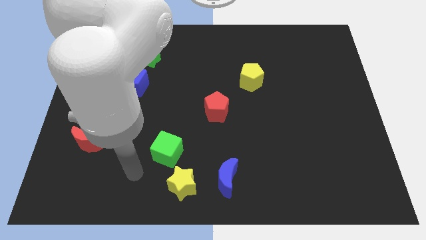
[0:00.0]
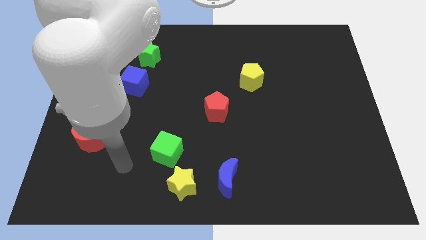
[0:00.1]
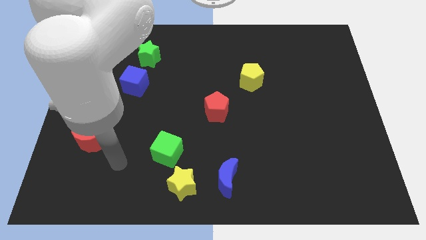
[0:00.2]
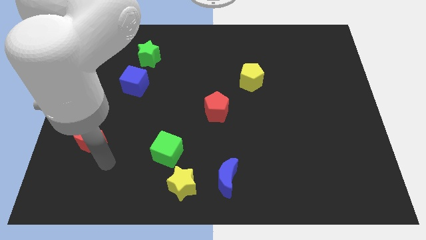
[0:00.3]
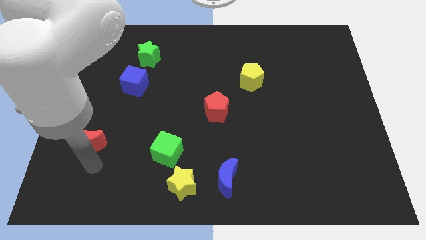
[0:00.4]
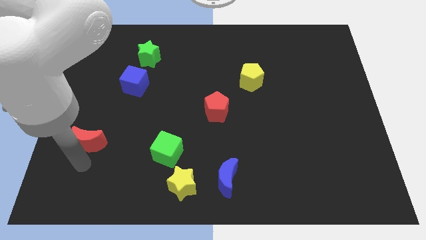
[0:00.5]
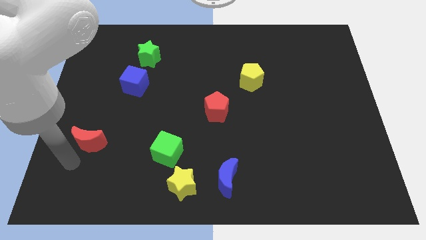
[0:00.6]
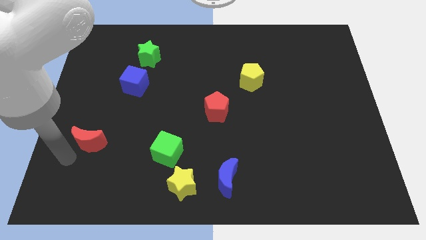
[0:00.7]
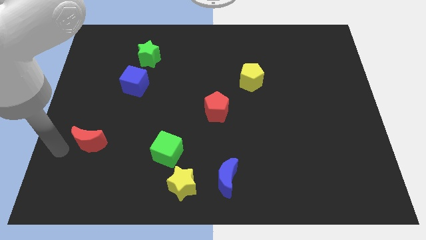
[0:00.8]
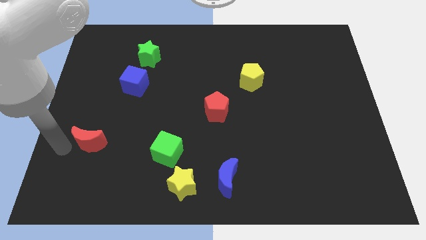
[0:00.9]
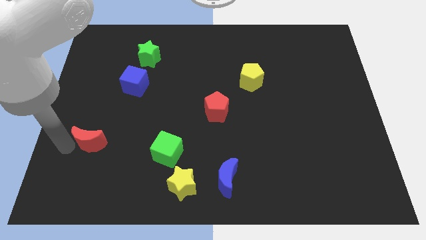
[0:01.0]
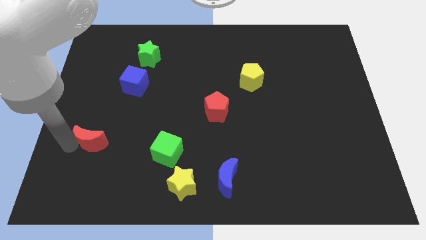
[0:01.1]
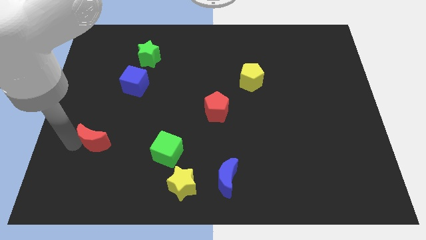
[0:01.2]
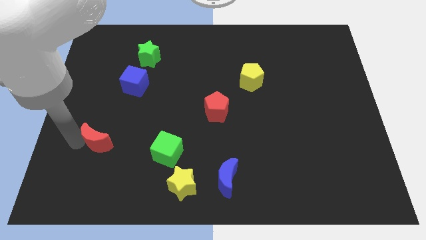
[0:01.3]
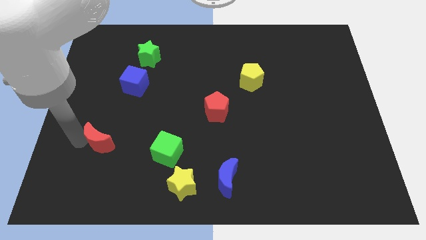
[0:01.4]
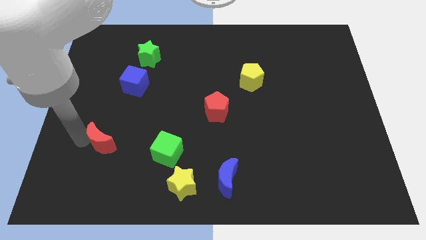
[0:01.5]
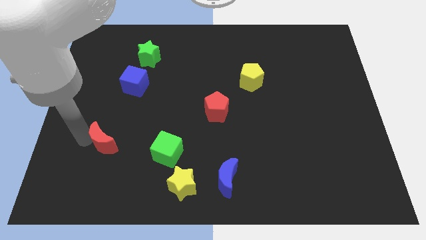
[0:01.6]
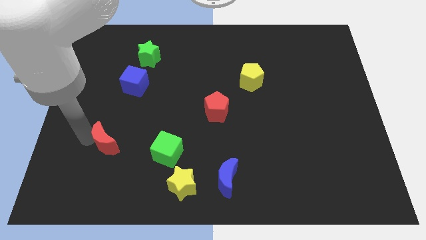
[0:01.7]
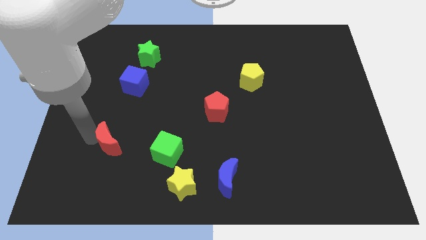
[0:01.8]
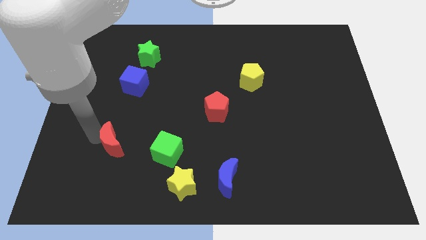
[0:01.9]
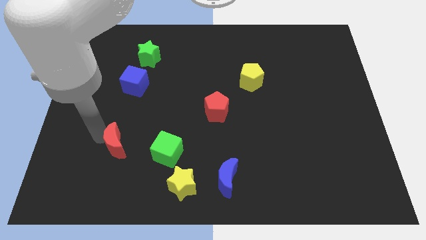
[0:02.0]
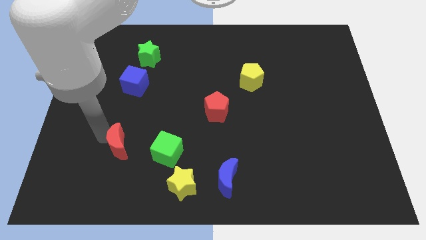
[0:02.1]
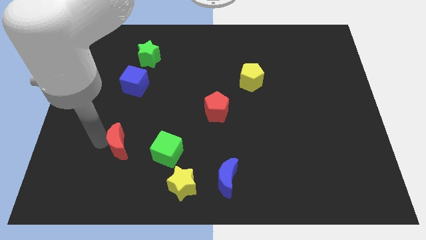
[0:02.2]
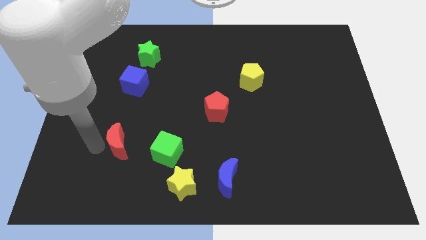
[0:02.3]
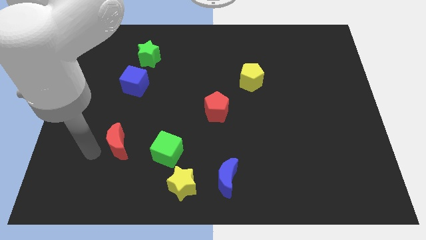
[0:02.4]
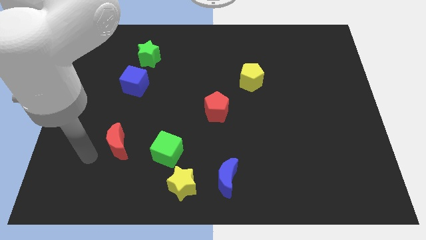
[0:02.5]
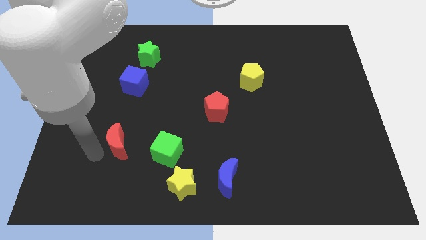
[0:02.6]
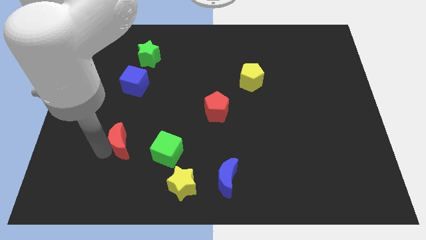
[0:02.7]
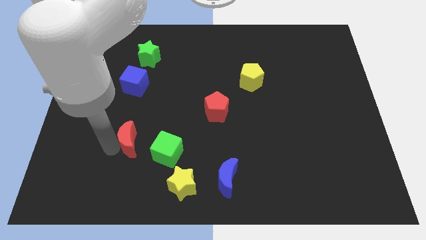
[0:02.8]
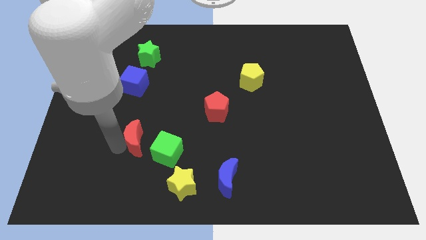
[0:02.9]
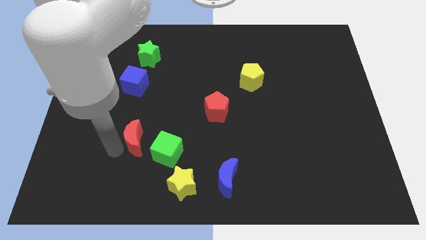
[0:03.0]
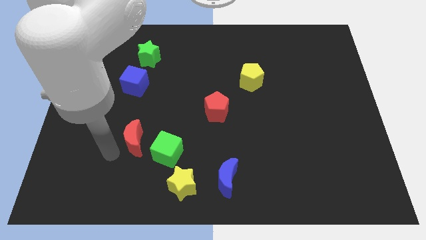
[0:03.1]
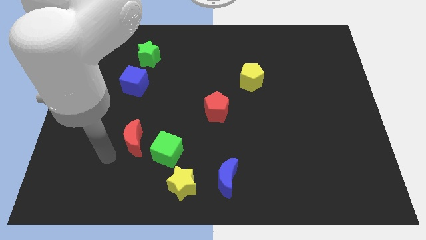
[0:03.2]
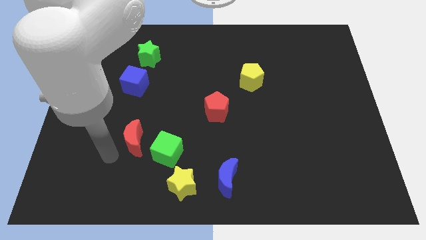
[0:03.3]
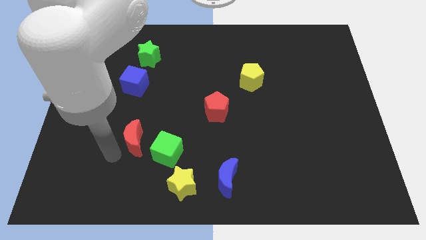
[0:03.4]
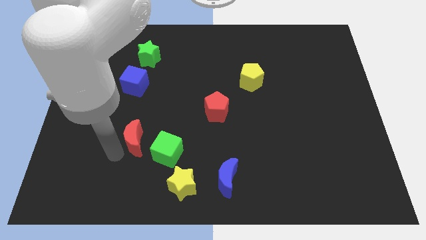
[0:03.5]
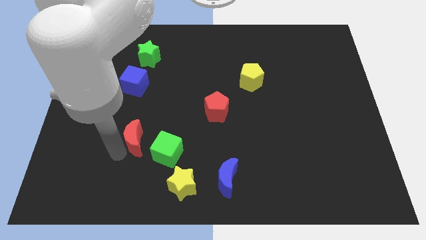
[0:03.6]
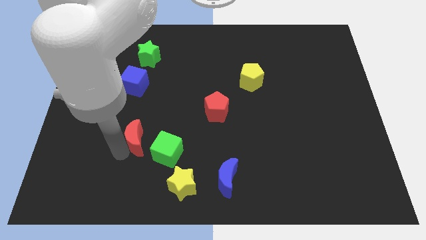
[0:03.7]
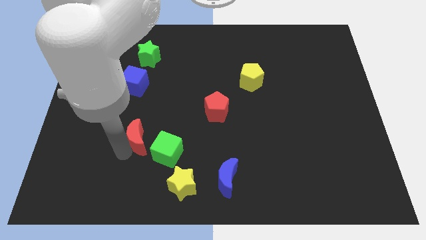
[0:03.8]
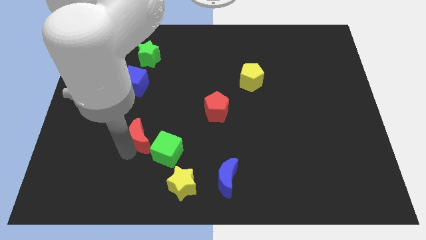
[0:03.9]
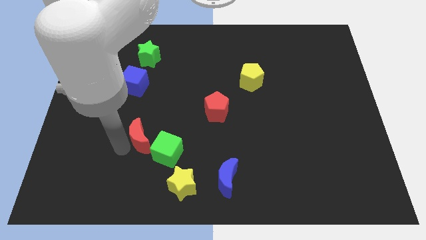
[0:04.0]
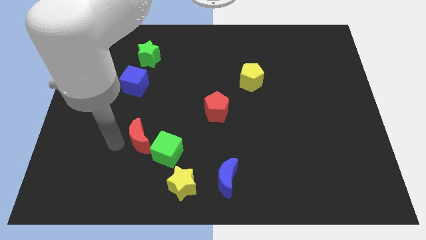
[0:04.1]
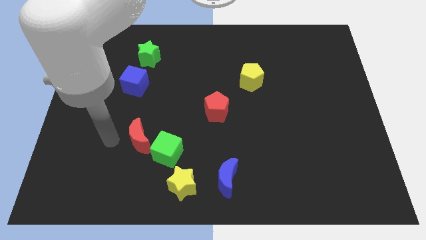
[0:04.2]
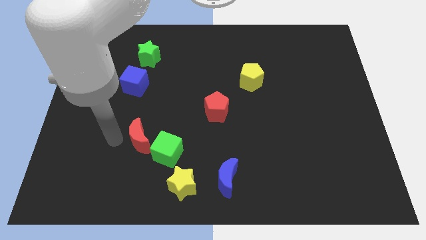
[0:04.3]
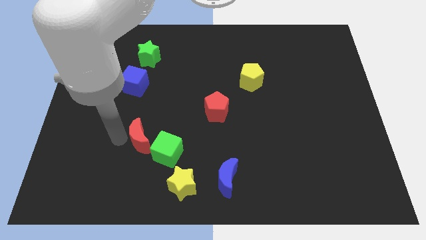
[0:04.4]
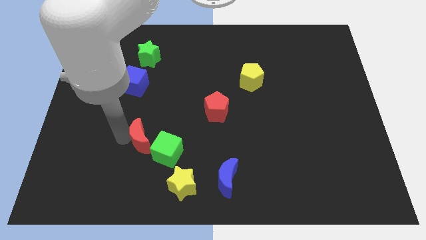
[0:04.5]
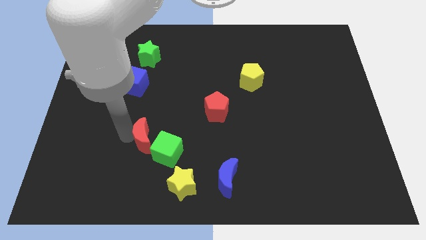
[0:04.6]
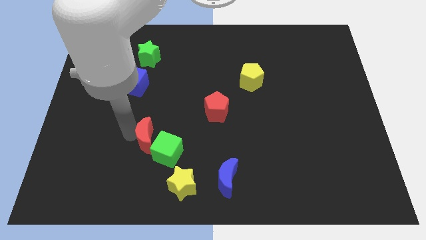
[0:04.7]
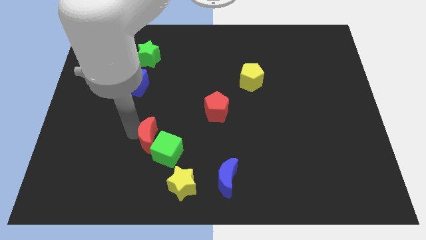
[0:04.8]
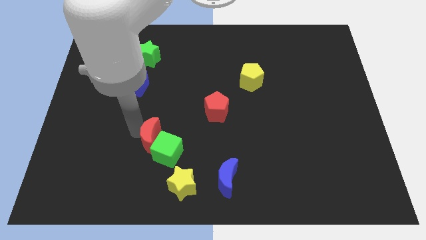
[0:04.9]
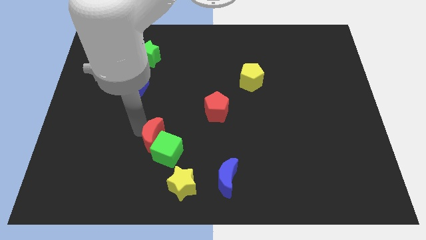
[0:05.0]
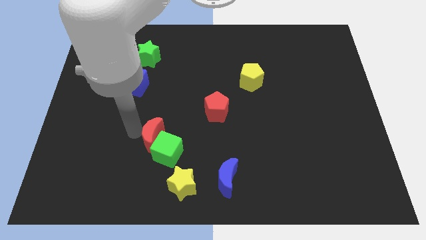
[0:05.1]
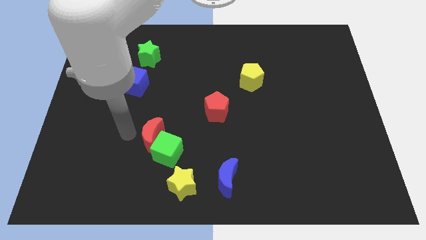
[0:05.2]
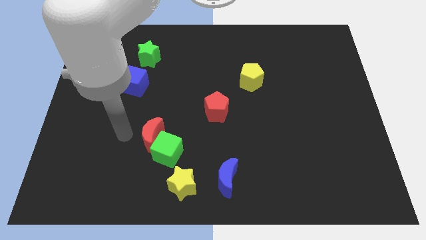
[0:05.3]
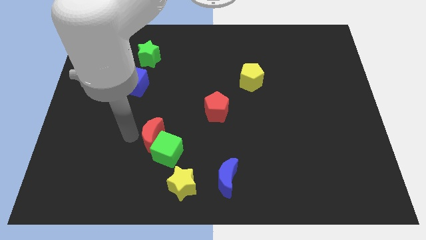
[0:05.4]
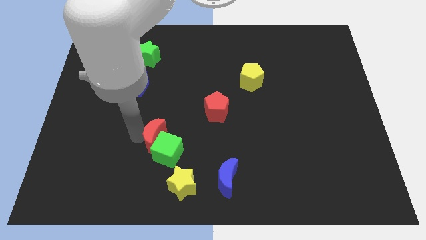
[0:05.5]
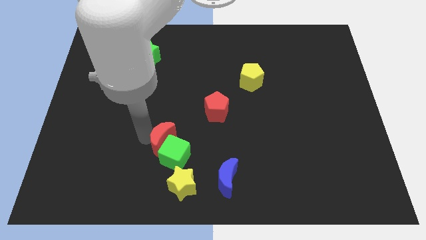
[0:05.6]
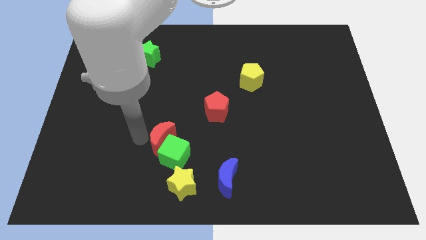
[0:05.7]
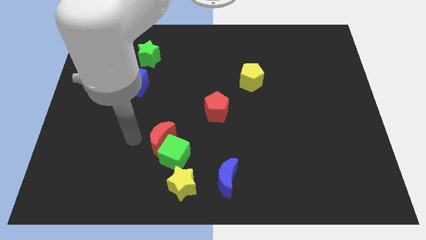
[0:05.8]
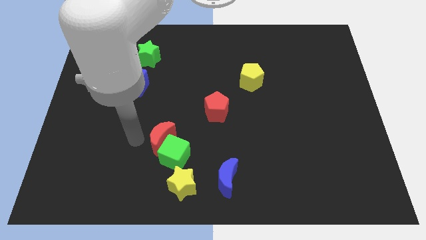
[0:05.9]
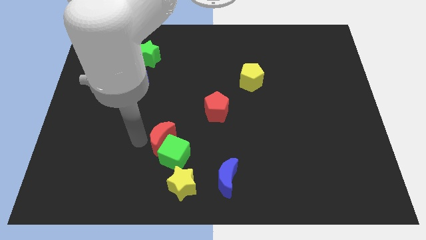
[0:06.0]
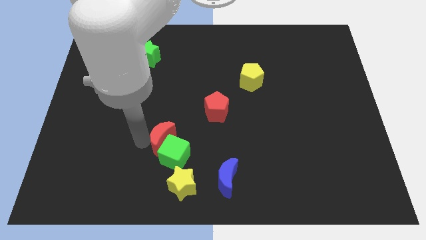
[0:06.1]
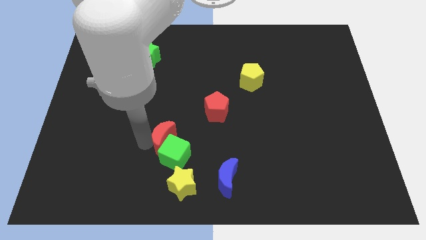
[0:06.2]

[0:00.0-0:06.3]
slide the red moon above the yellow star

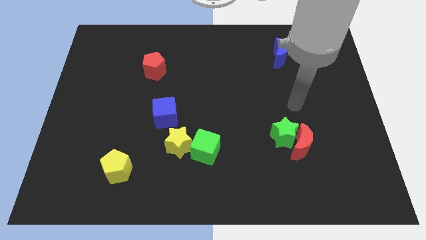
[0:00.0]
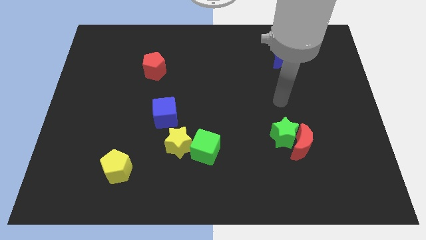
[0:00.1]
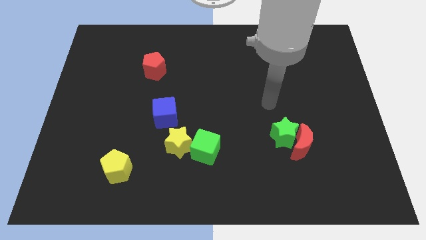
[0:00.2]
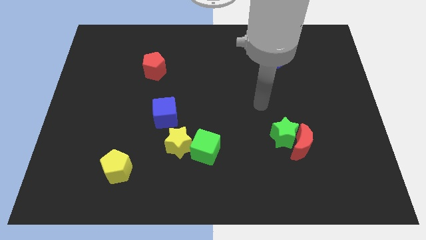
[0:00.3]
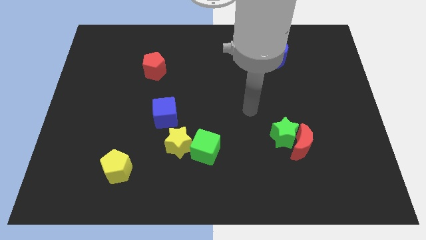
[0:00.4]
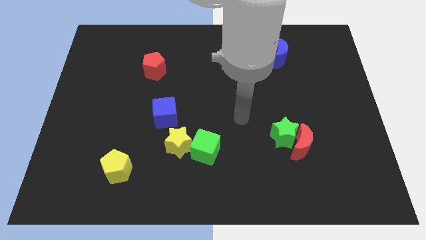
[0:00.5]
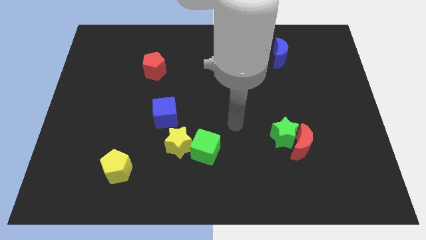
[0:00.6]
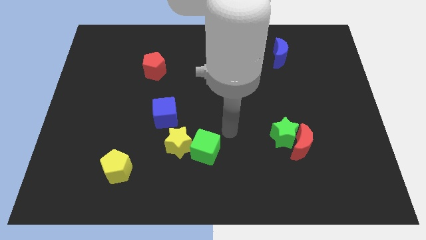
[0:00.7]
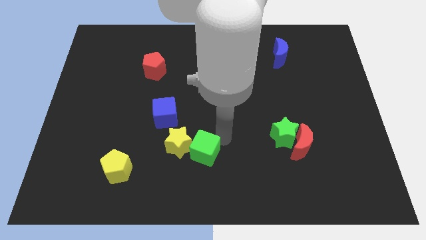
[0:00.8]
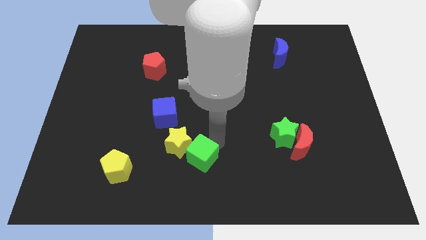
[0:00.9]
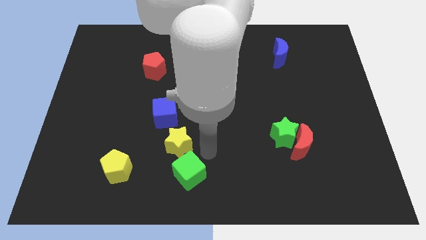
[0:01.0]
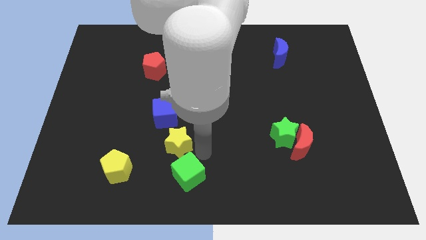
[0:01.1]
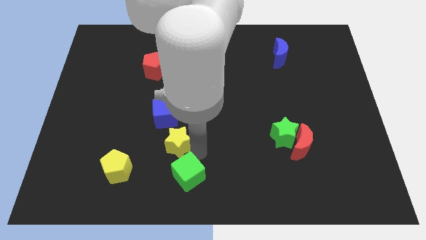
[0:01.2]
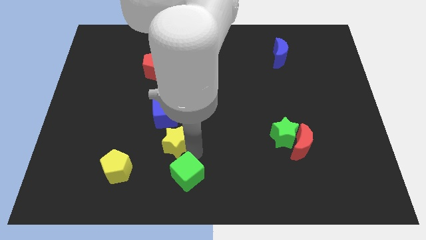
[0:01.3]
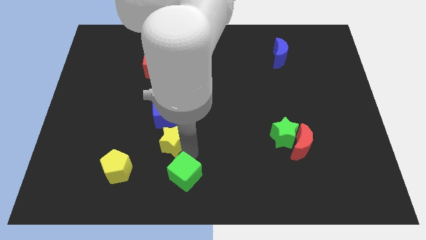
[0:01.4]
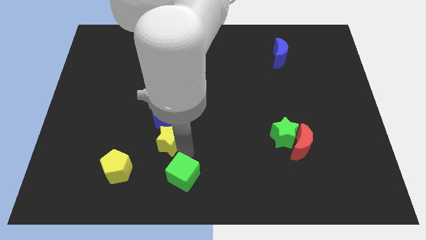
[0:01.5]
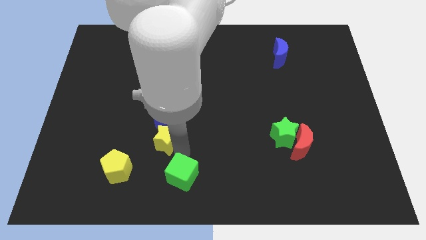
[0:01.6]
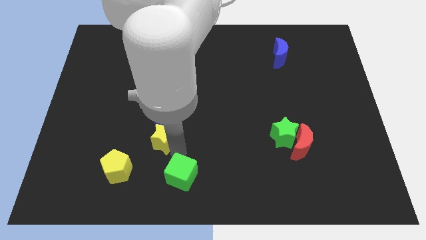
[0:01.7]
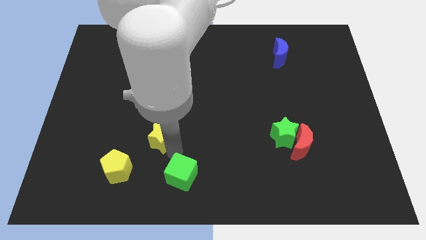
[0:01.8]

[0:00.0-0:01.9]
move the yellow star diagonally down and to the left of the blue cube
